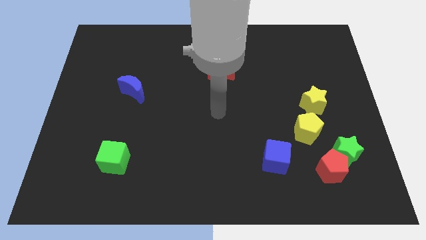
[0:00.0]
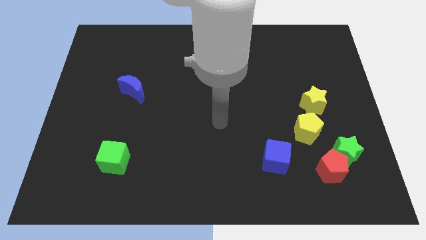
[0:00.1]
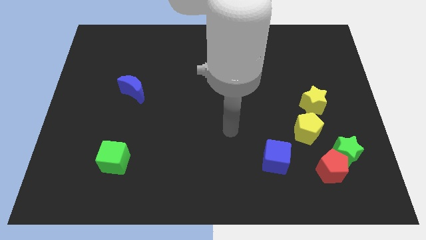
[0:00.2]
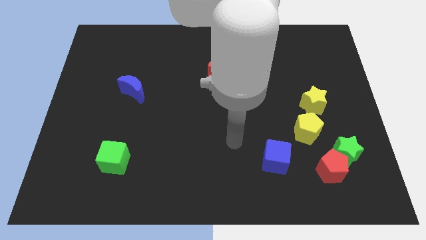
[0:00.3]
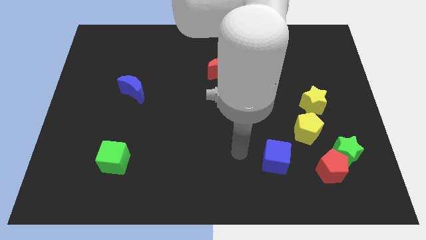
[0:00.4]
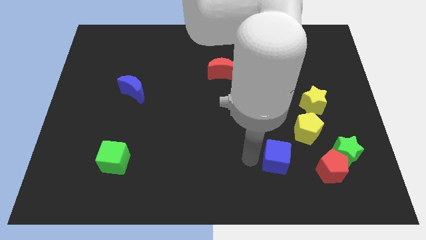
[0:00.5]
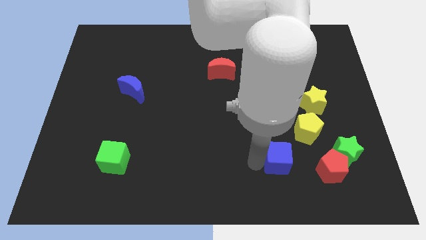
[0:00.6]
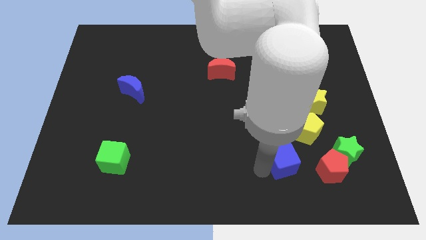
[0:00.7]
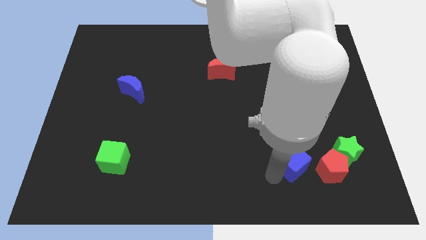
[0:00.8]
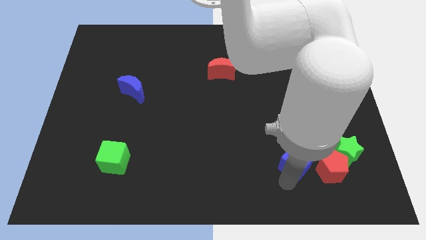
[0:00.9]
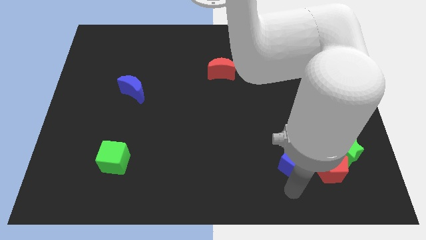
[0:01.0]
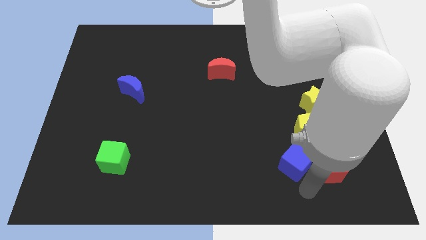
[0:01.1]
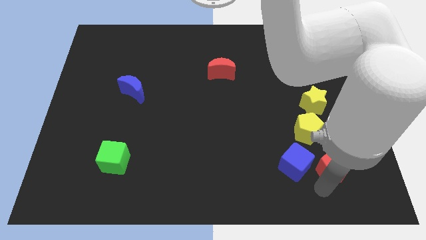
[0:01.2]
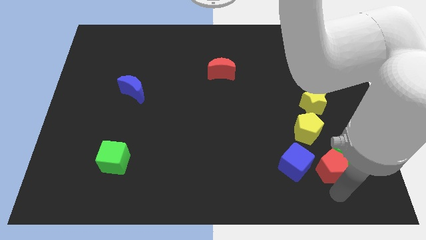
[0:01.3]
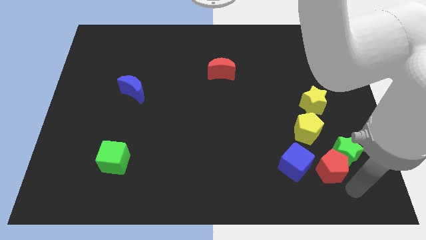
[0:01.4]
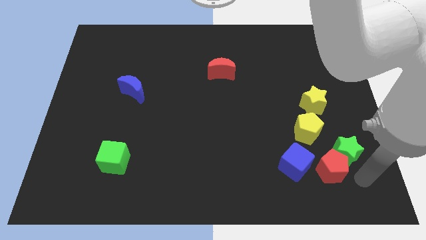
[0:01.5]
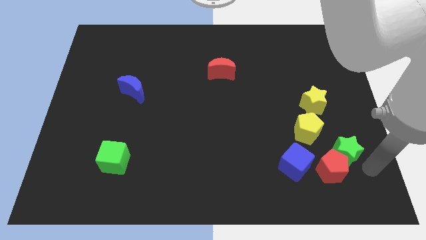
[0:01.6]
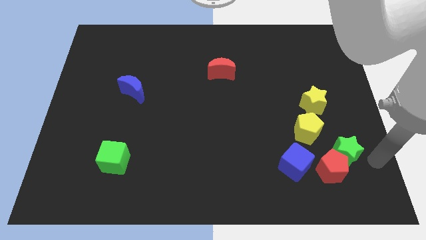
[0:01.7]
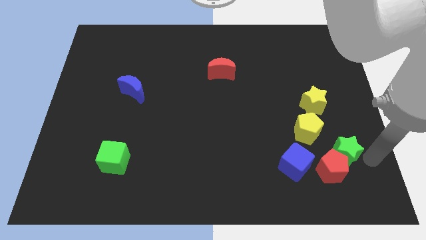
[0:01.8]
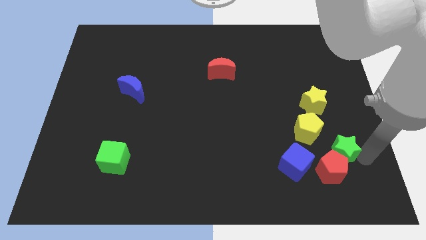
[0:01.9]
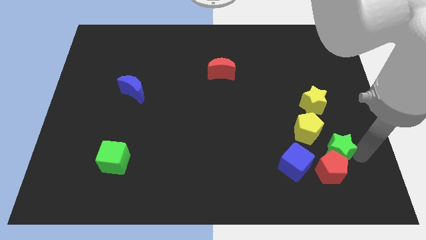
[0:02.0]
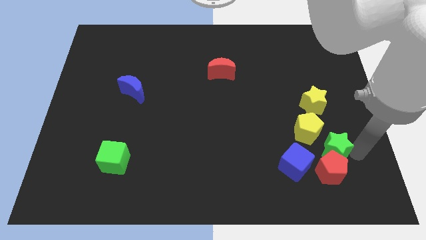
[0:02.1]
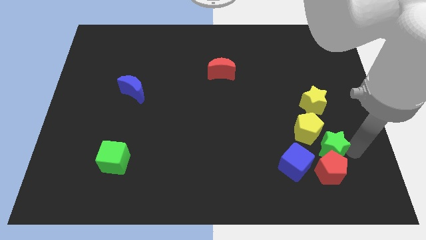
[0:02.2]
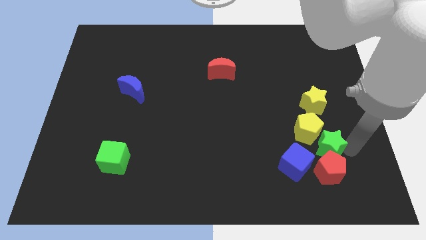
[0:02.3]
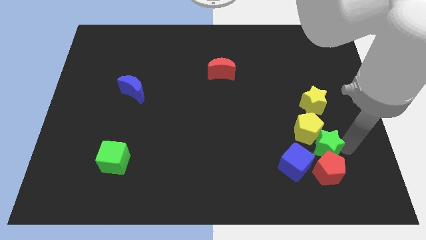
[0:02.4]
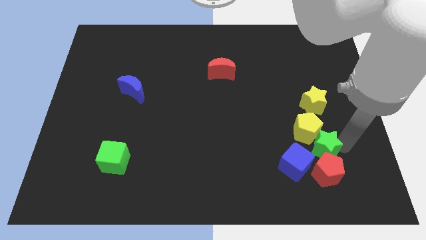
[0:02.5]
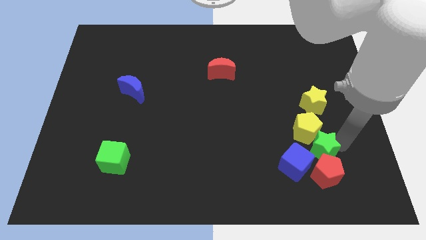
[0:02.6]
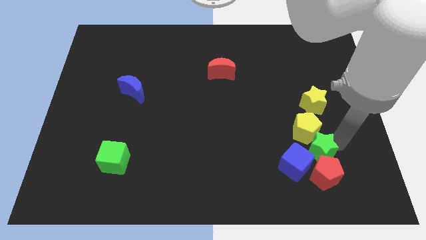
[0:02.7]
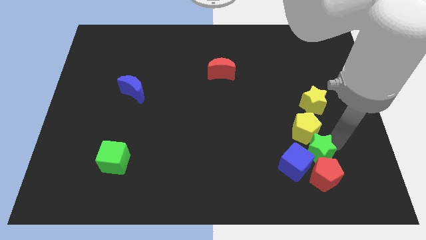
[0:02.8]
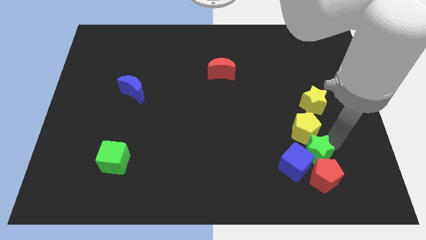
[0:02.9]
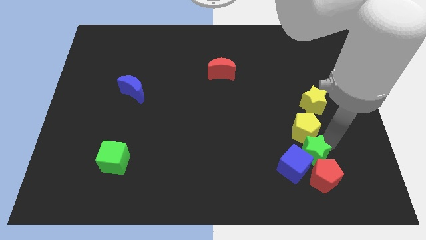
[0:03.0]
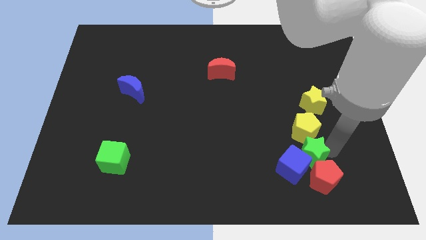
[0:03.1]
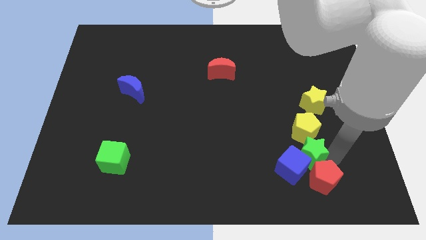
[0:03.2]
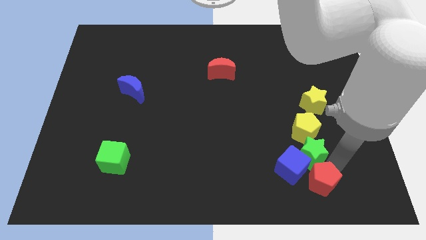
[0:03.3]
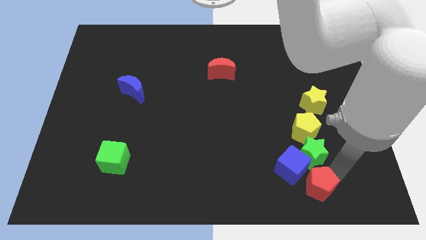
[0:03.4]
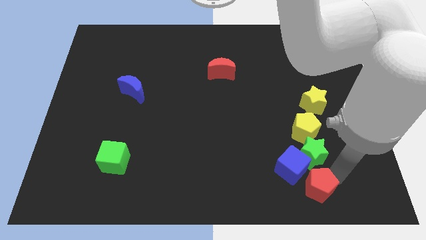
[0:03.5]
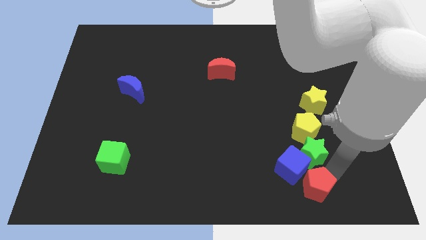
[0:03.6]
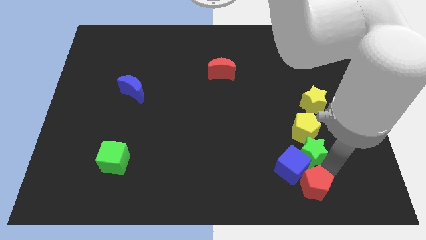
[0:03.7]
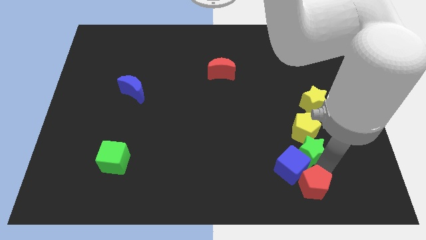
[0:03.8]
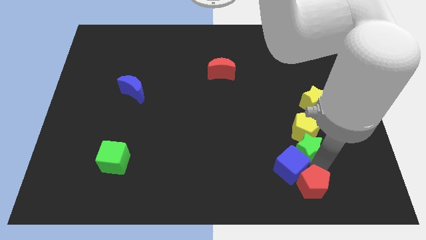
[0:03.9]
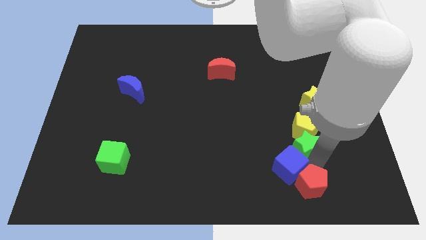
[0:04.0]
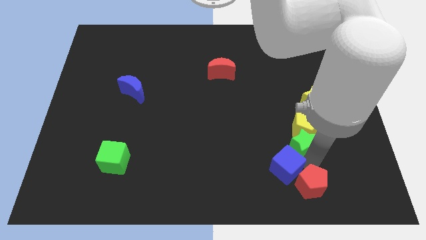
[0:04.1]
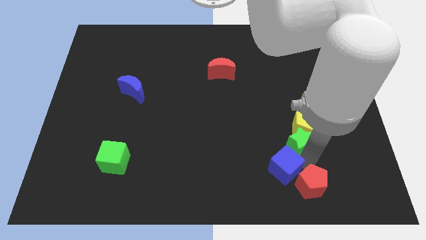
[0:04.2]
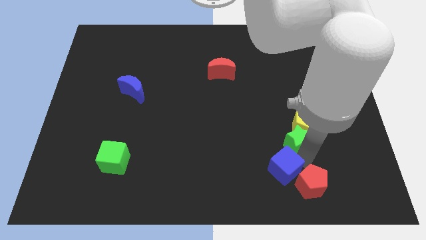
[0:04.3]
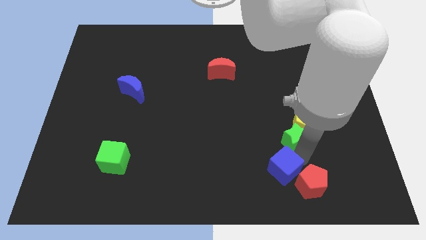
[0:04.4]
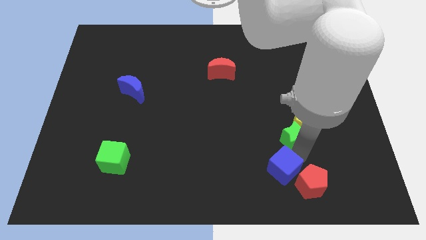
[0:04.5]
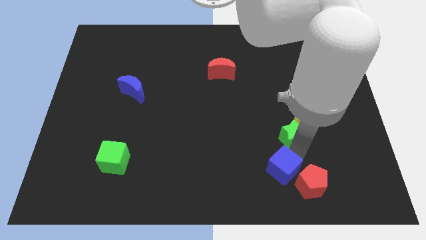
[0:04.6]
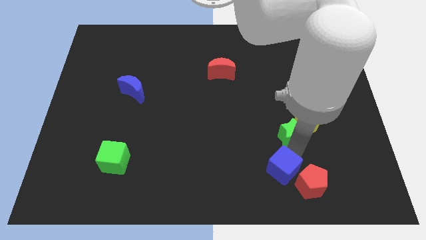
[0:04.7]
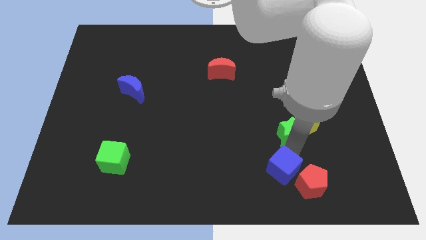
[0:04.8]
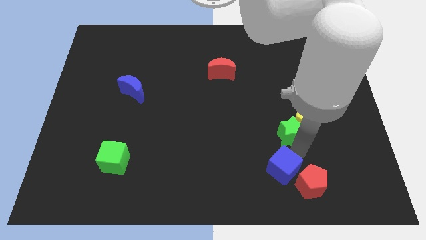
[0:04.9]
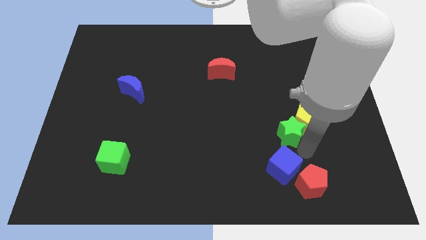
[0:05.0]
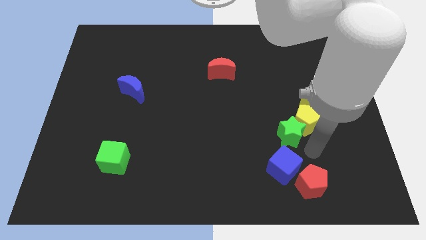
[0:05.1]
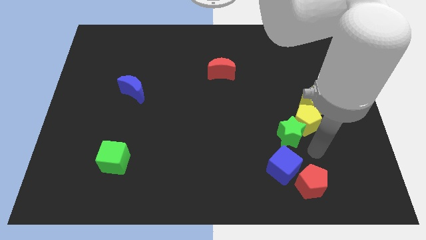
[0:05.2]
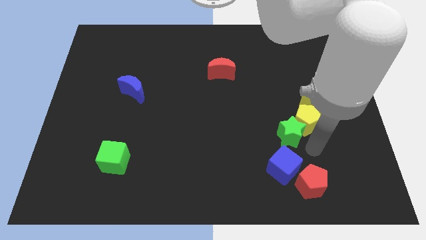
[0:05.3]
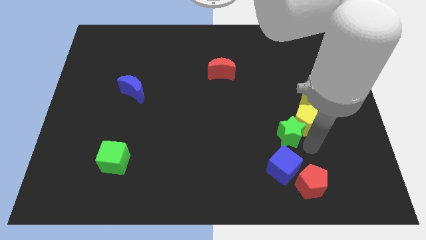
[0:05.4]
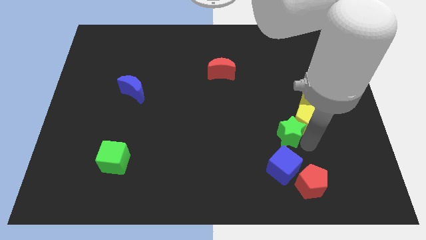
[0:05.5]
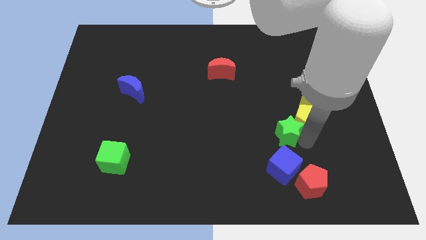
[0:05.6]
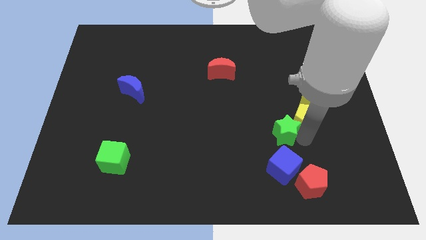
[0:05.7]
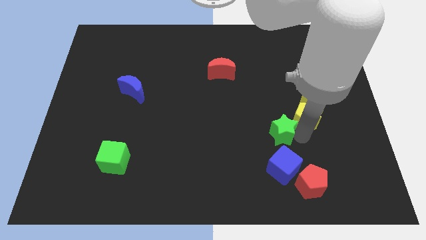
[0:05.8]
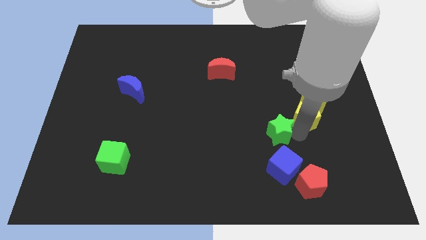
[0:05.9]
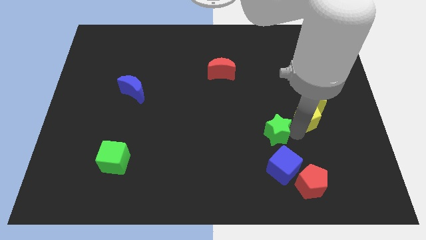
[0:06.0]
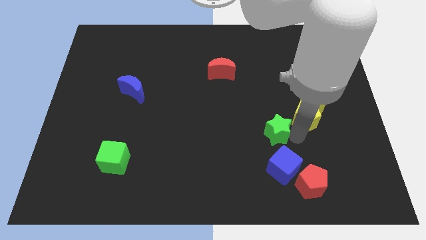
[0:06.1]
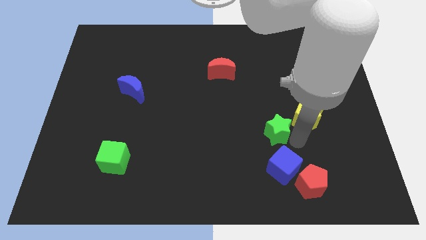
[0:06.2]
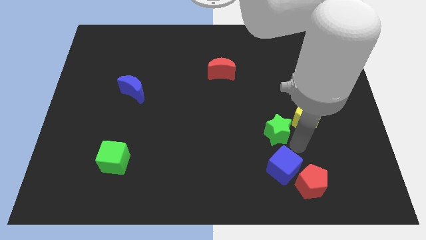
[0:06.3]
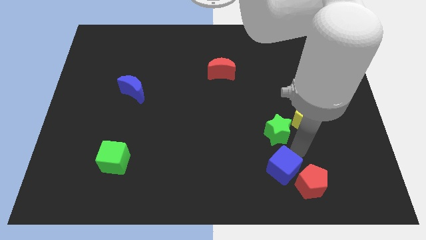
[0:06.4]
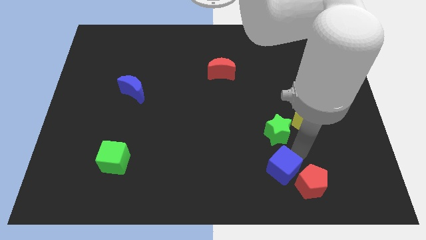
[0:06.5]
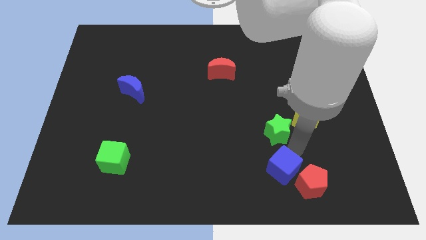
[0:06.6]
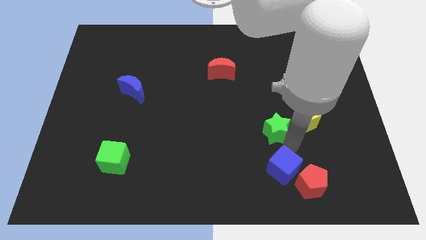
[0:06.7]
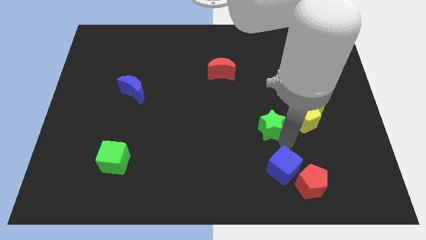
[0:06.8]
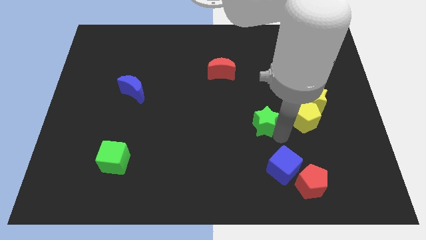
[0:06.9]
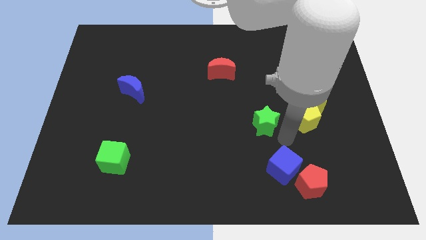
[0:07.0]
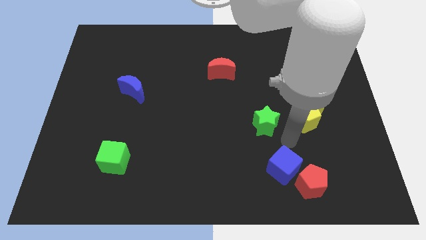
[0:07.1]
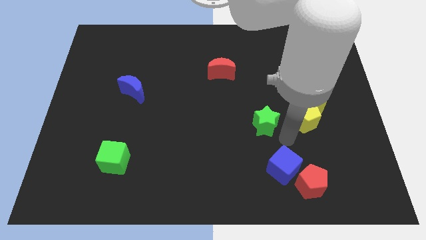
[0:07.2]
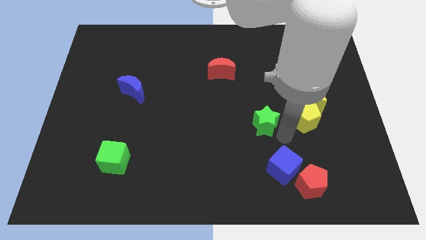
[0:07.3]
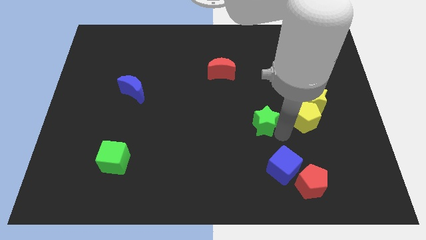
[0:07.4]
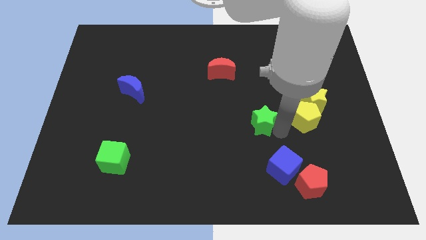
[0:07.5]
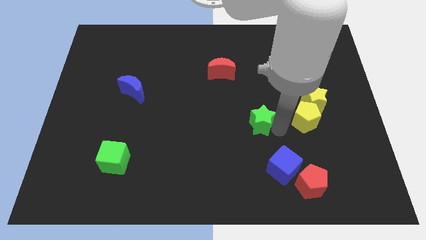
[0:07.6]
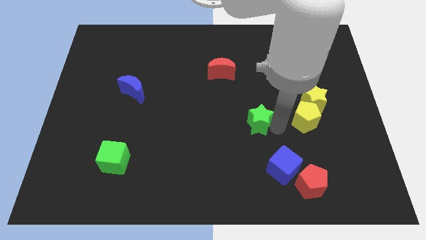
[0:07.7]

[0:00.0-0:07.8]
push the green star to the middle of the board
